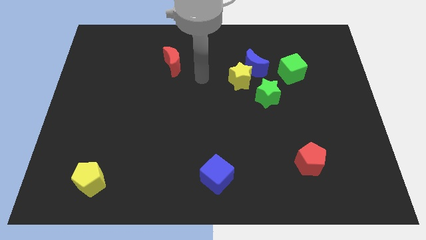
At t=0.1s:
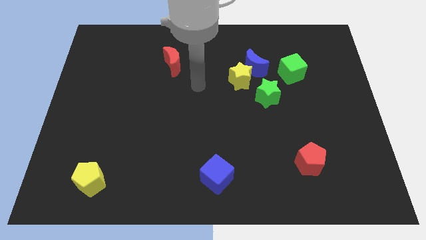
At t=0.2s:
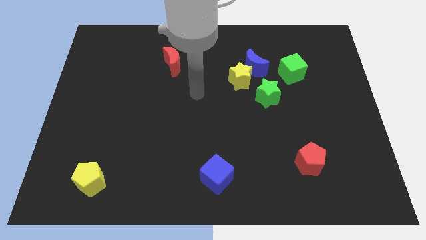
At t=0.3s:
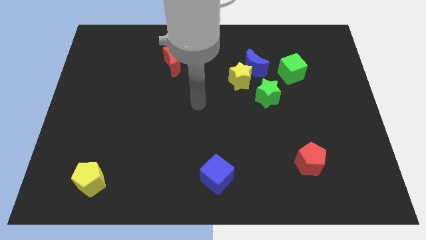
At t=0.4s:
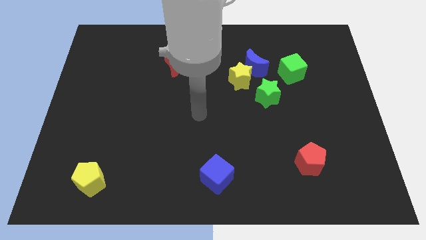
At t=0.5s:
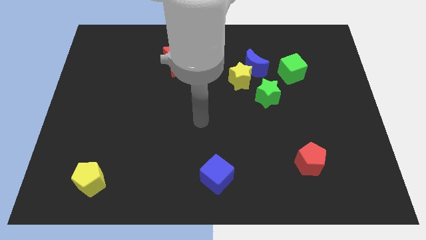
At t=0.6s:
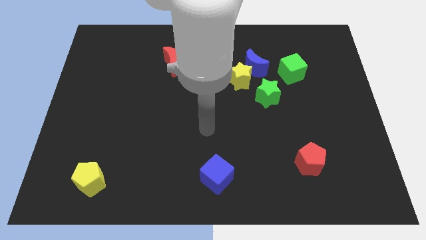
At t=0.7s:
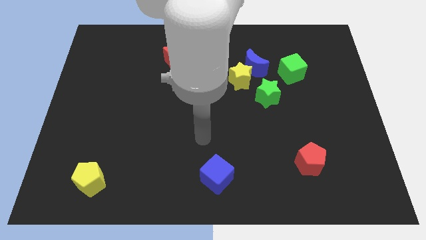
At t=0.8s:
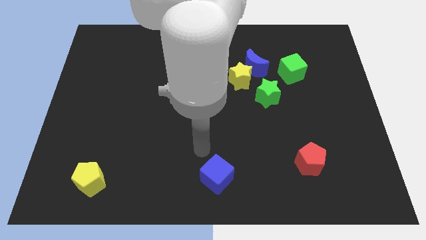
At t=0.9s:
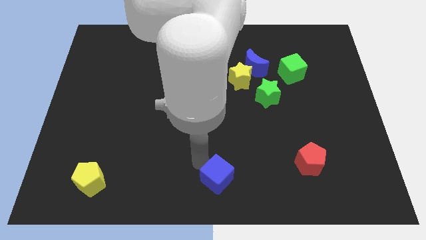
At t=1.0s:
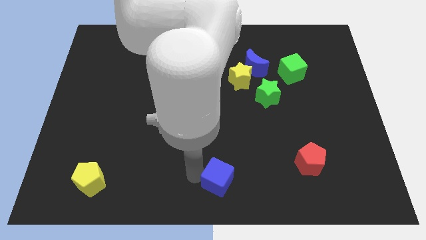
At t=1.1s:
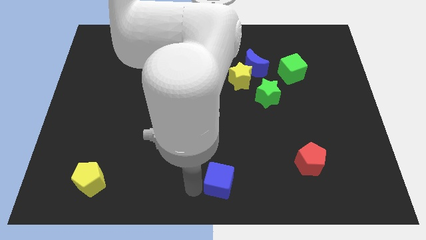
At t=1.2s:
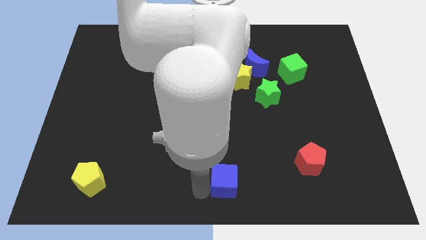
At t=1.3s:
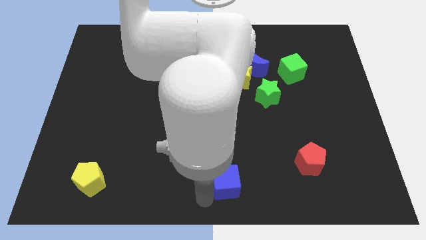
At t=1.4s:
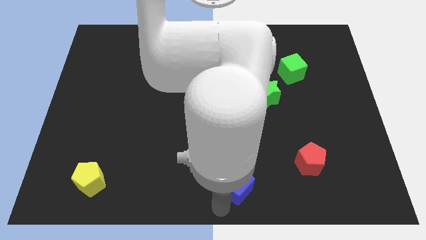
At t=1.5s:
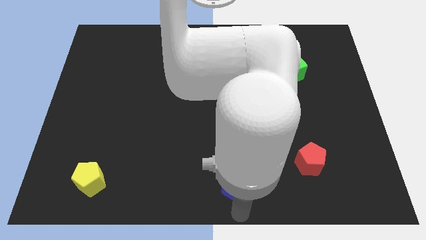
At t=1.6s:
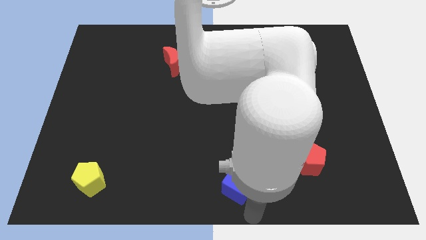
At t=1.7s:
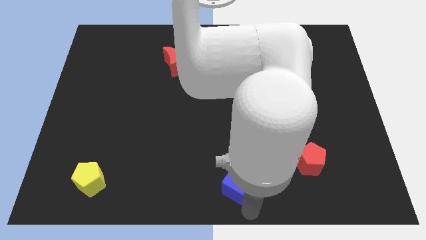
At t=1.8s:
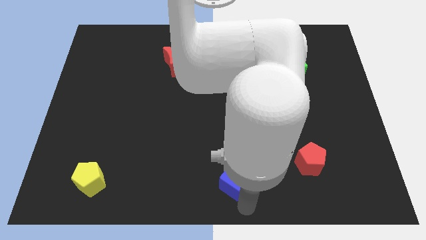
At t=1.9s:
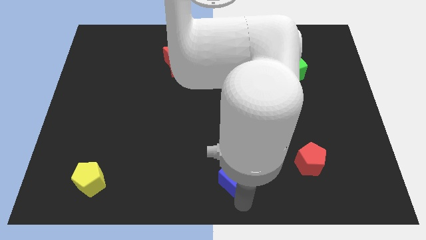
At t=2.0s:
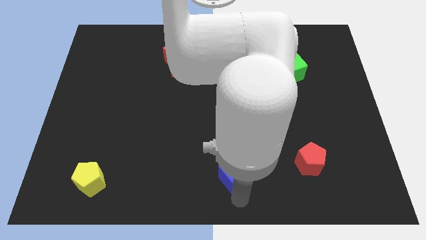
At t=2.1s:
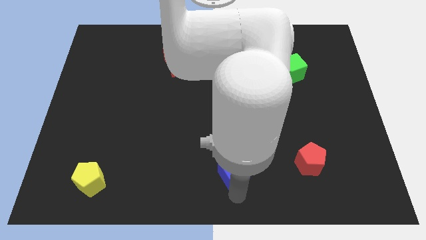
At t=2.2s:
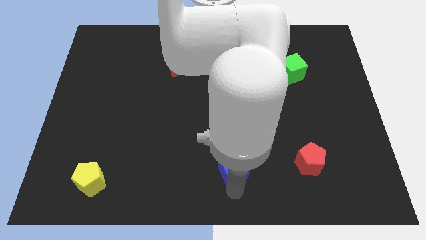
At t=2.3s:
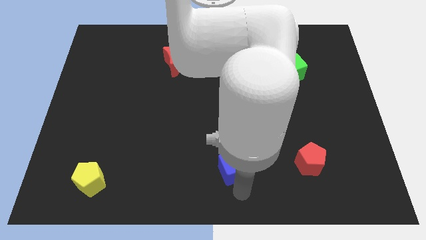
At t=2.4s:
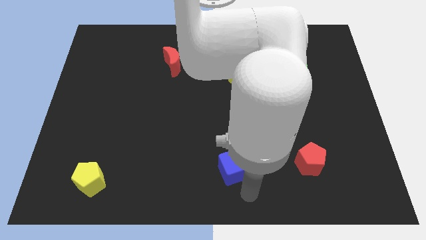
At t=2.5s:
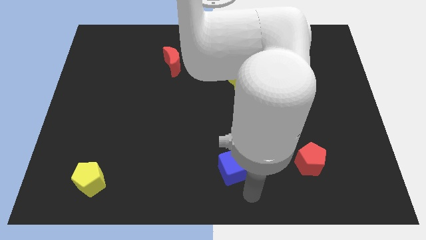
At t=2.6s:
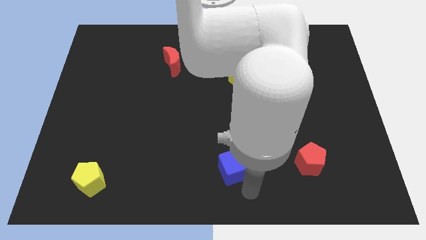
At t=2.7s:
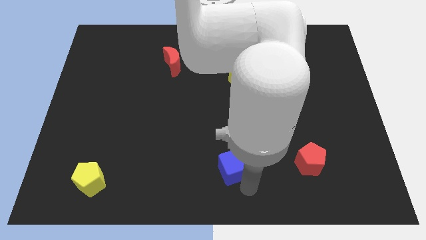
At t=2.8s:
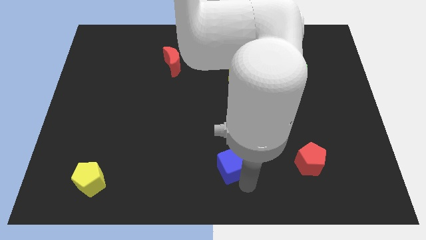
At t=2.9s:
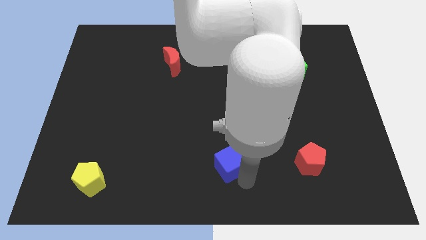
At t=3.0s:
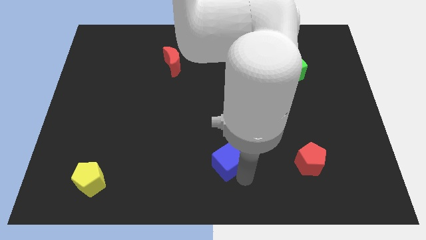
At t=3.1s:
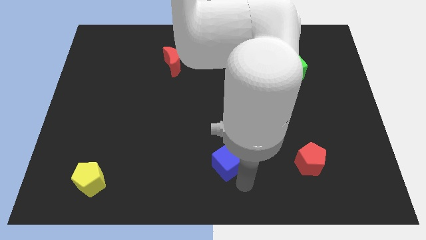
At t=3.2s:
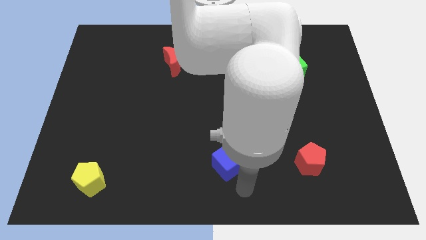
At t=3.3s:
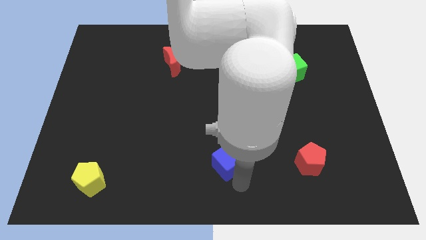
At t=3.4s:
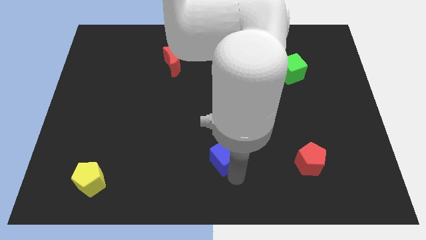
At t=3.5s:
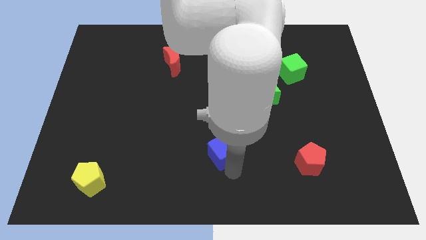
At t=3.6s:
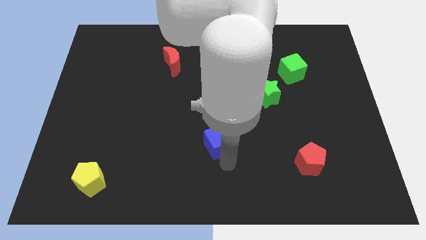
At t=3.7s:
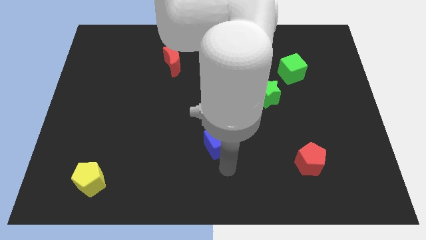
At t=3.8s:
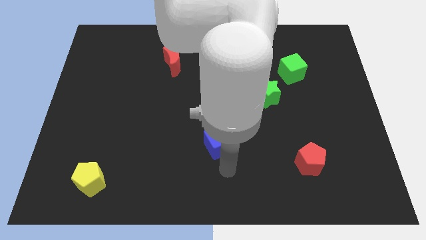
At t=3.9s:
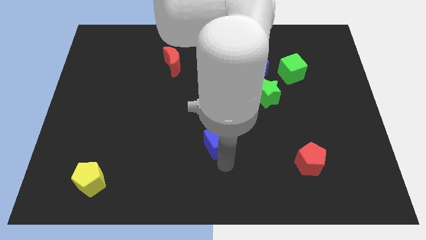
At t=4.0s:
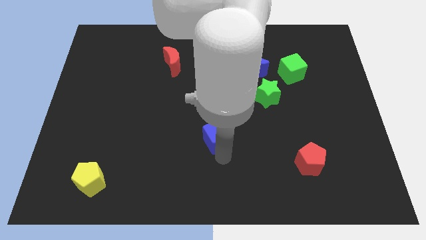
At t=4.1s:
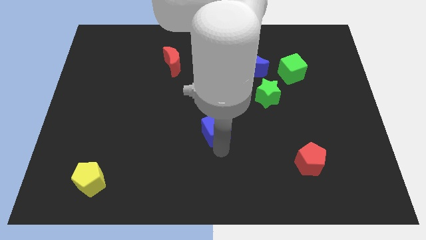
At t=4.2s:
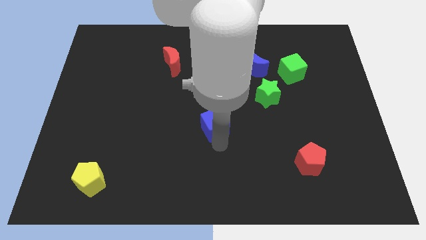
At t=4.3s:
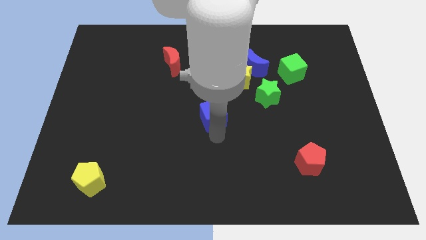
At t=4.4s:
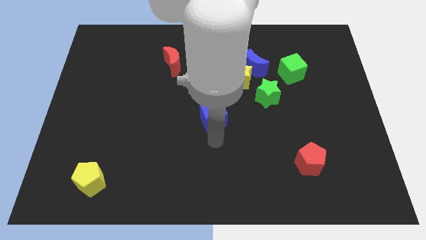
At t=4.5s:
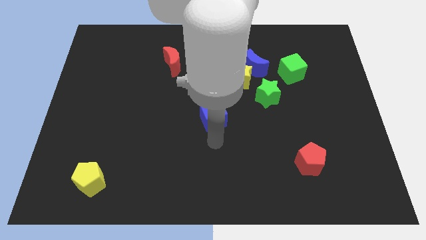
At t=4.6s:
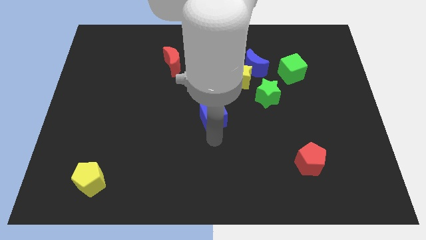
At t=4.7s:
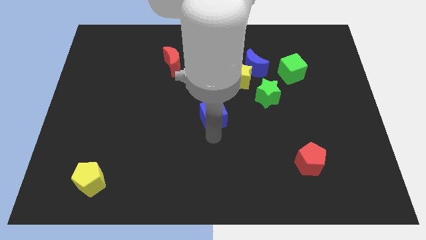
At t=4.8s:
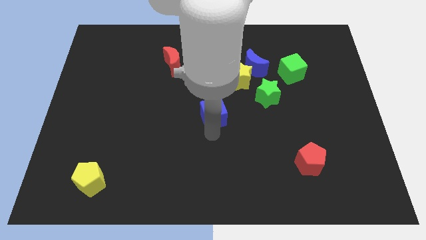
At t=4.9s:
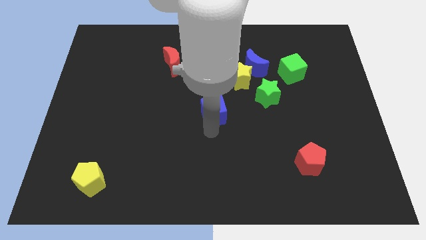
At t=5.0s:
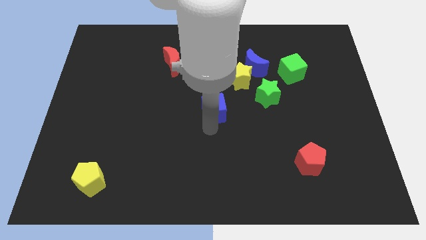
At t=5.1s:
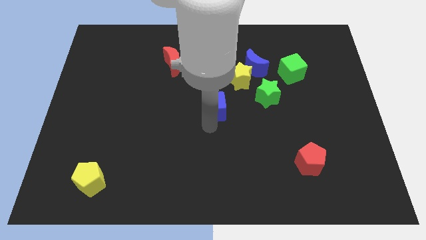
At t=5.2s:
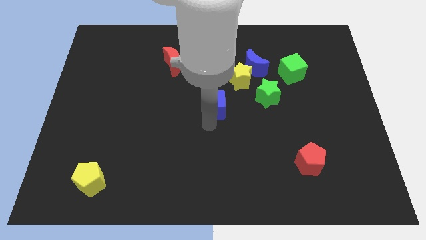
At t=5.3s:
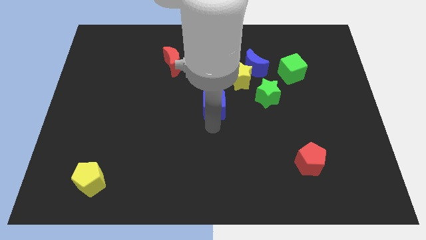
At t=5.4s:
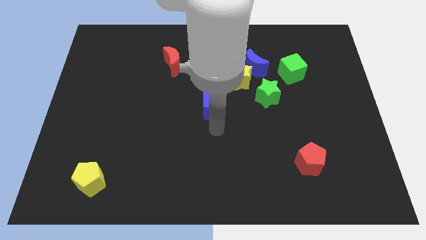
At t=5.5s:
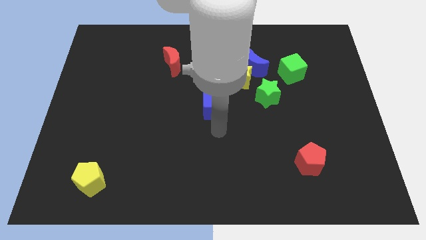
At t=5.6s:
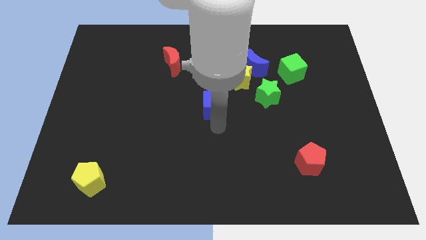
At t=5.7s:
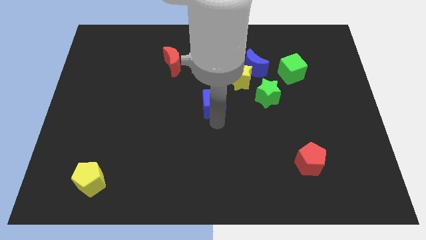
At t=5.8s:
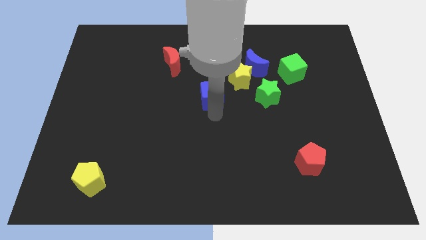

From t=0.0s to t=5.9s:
move the blue cube upwards

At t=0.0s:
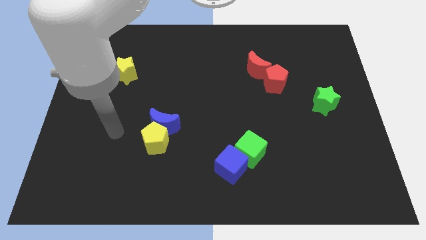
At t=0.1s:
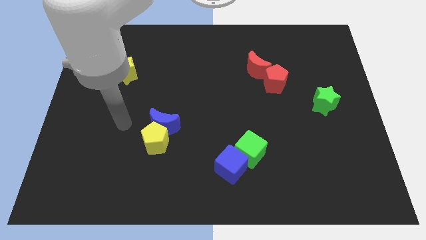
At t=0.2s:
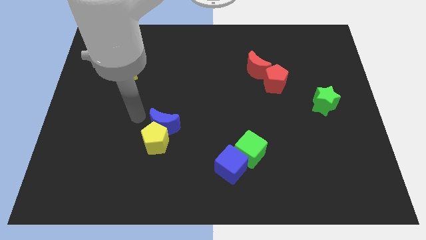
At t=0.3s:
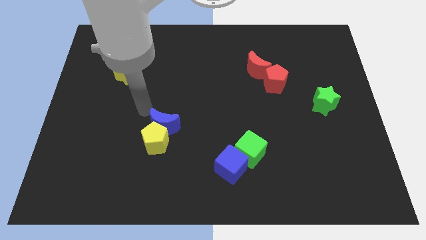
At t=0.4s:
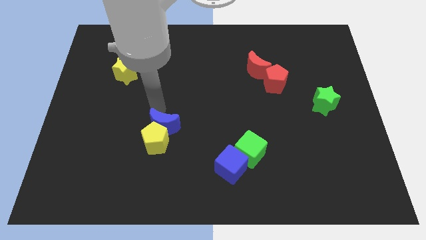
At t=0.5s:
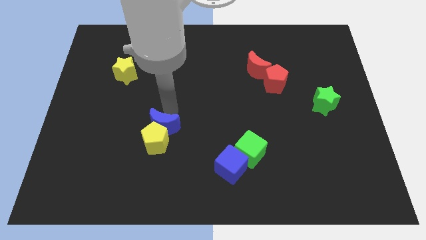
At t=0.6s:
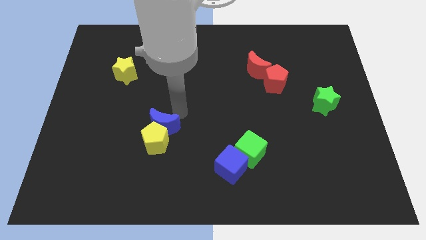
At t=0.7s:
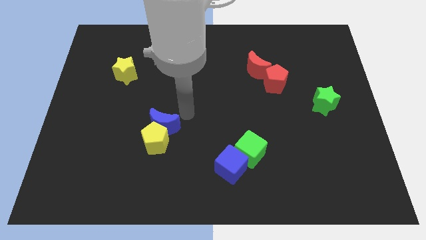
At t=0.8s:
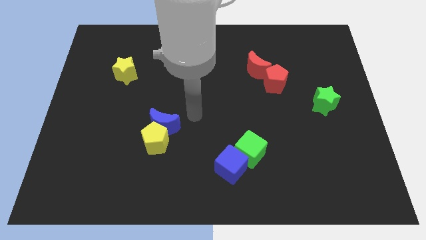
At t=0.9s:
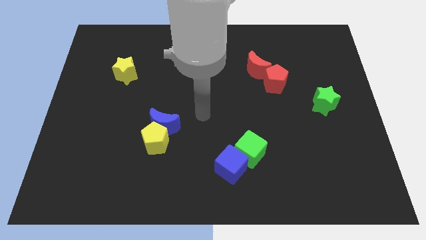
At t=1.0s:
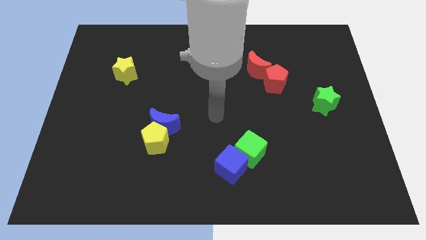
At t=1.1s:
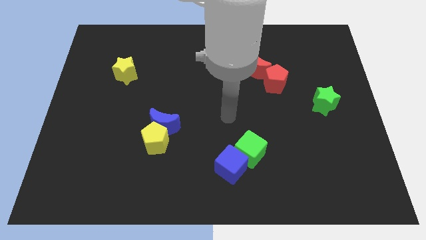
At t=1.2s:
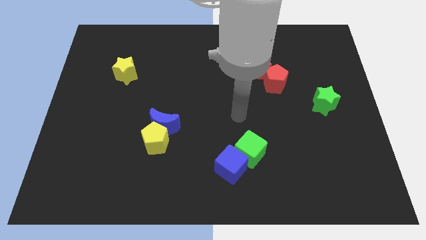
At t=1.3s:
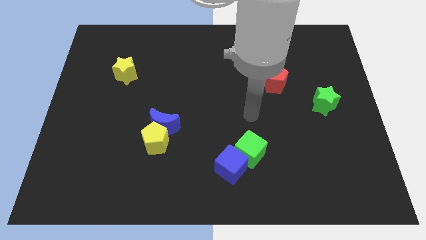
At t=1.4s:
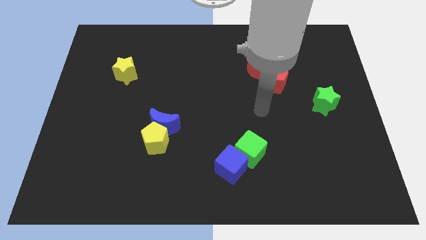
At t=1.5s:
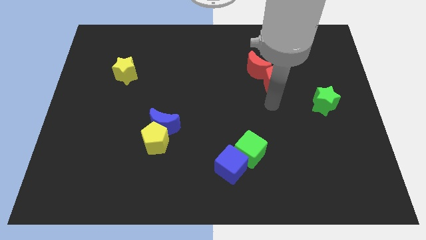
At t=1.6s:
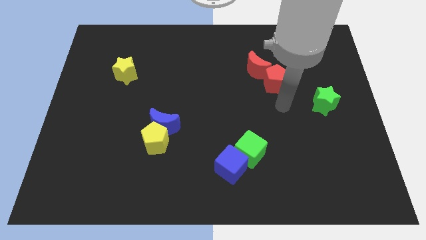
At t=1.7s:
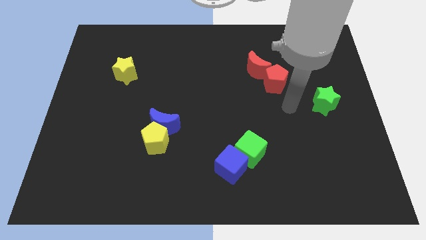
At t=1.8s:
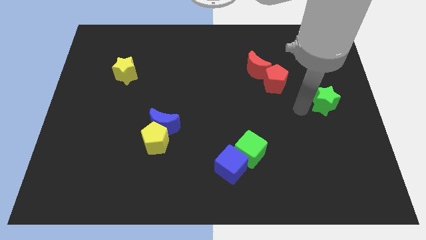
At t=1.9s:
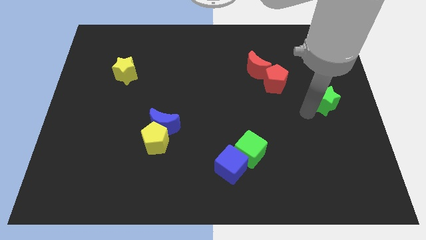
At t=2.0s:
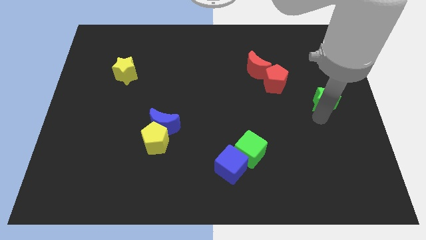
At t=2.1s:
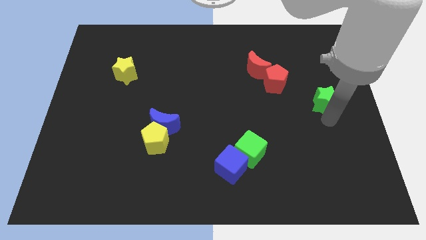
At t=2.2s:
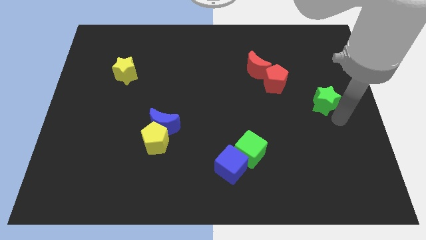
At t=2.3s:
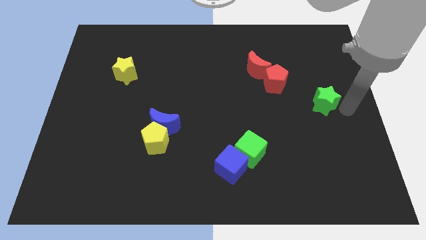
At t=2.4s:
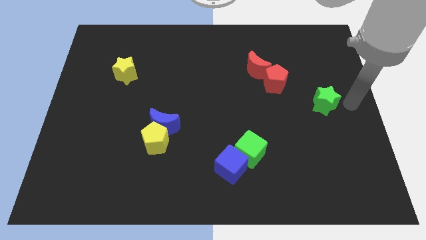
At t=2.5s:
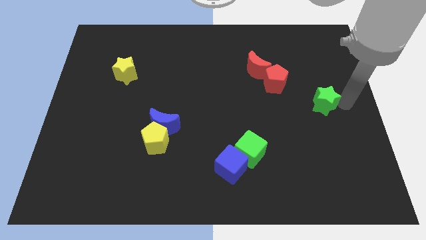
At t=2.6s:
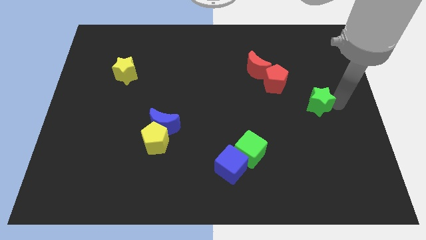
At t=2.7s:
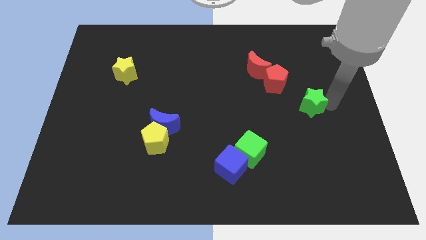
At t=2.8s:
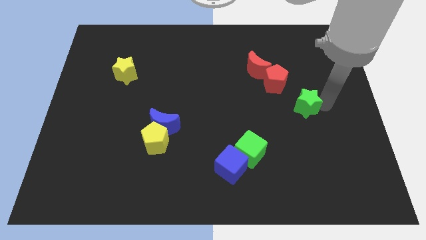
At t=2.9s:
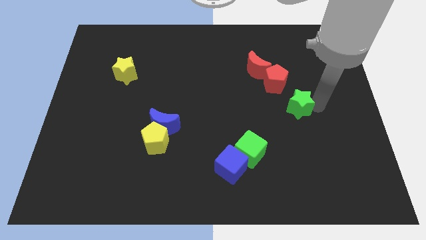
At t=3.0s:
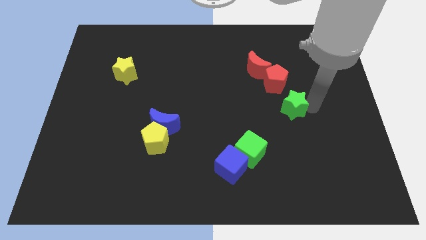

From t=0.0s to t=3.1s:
slightly slide the green star left
